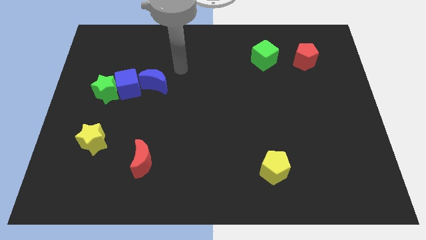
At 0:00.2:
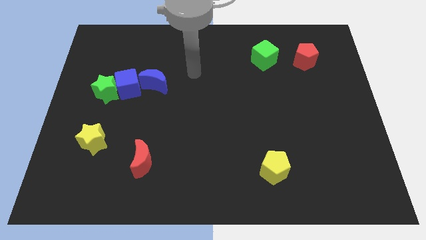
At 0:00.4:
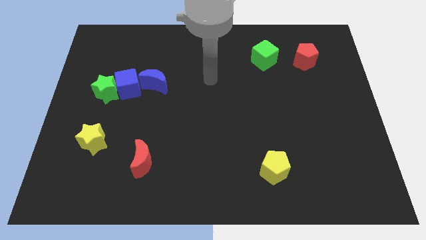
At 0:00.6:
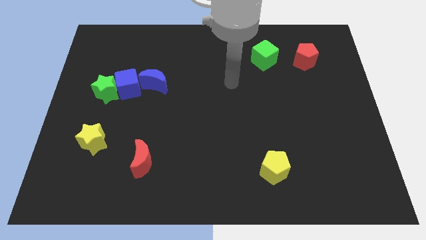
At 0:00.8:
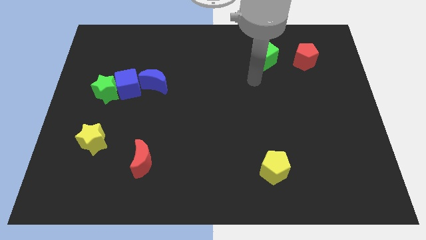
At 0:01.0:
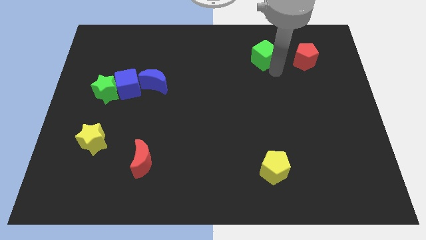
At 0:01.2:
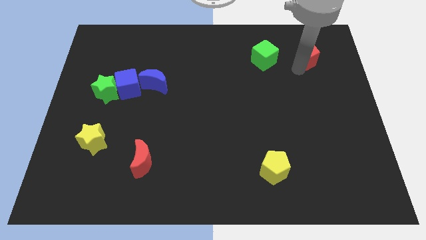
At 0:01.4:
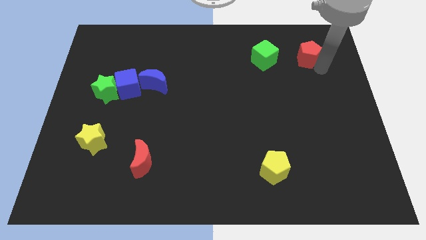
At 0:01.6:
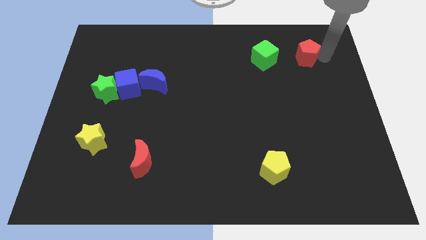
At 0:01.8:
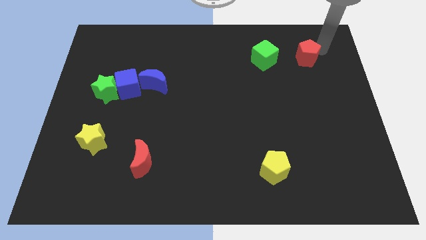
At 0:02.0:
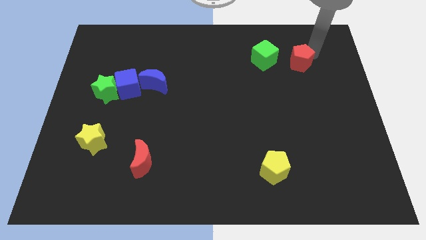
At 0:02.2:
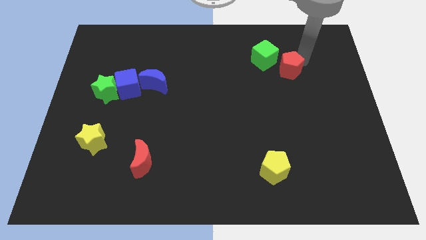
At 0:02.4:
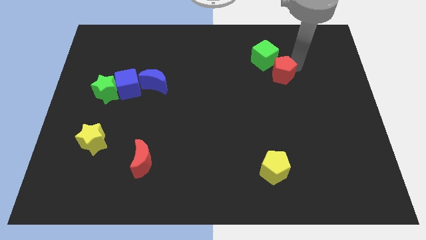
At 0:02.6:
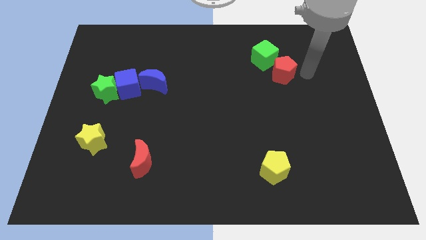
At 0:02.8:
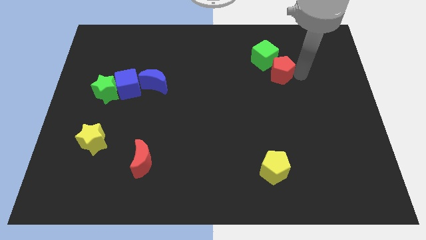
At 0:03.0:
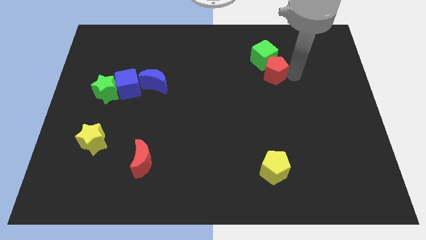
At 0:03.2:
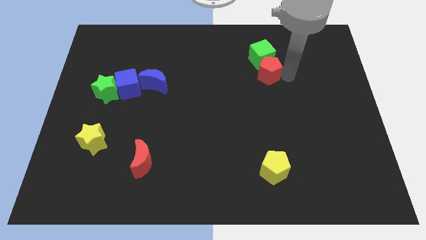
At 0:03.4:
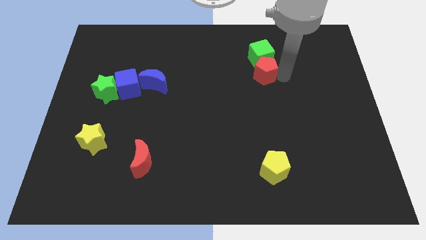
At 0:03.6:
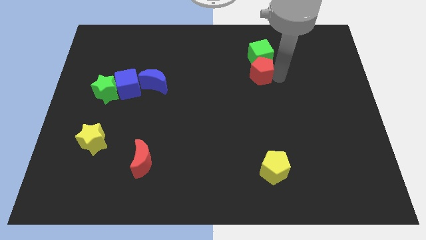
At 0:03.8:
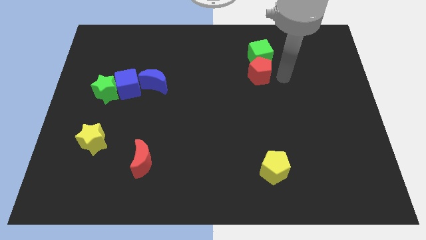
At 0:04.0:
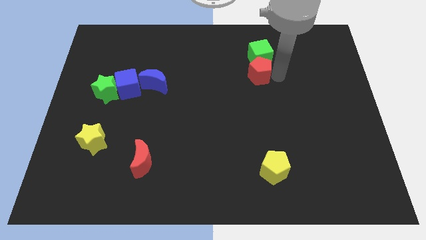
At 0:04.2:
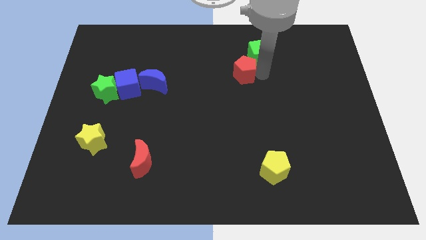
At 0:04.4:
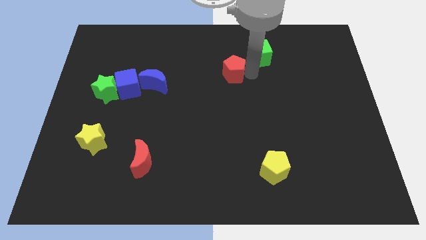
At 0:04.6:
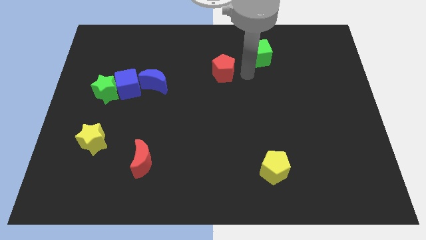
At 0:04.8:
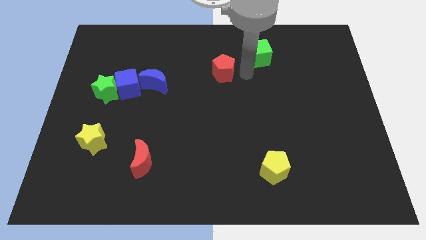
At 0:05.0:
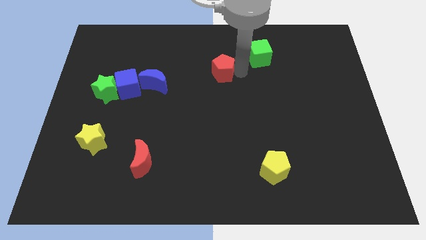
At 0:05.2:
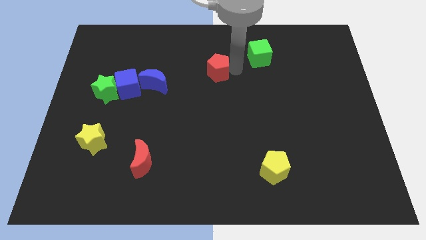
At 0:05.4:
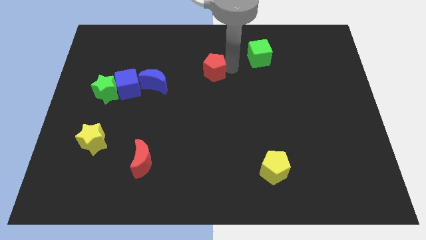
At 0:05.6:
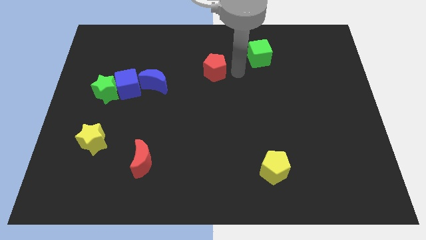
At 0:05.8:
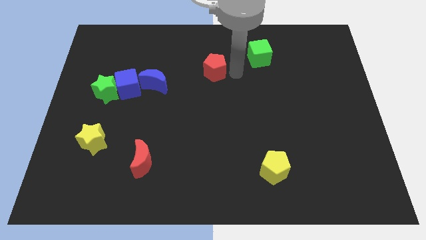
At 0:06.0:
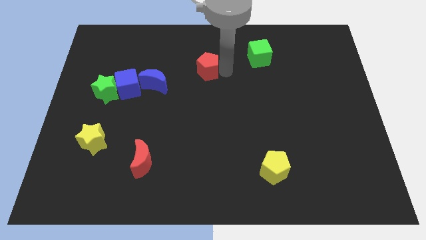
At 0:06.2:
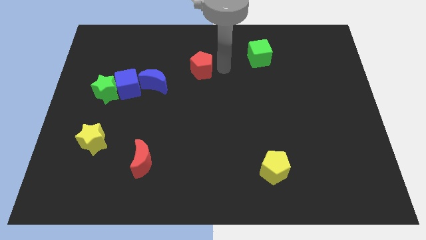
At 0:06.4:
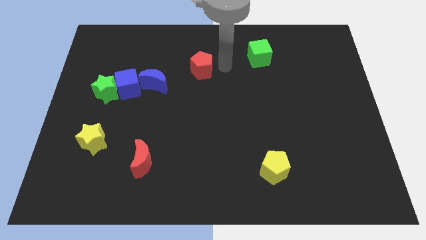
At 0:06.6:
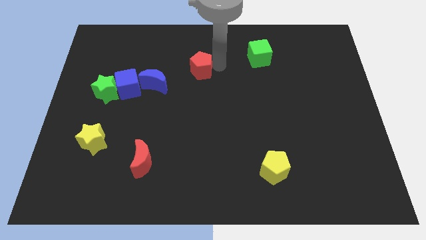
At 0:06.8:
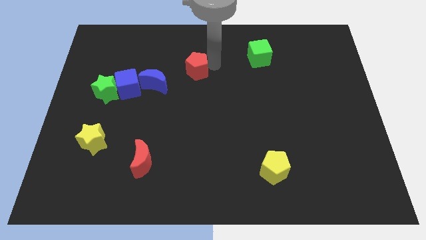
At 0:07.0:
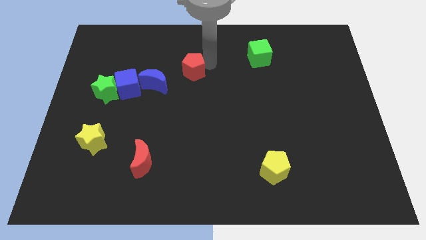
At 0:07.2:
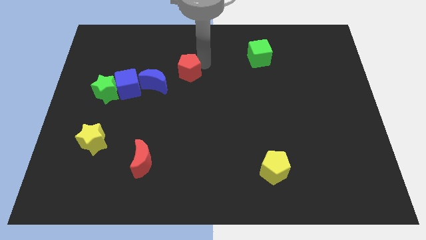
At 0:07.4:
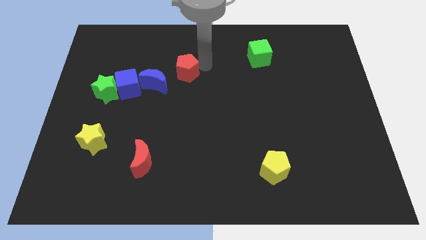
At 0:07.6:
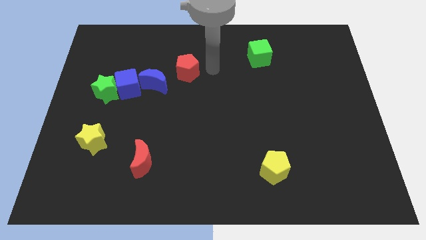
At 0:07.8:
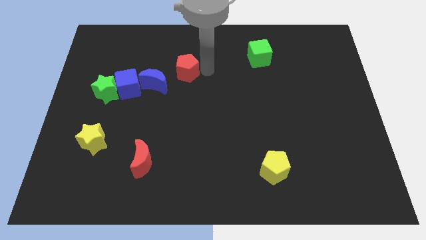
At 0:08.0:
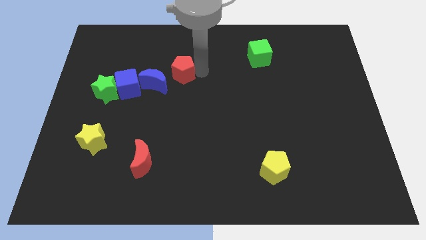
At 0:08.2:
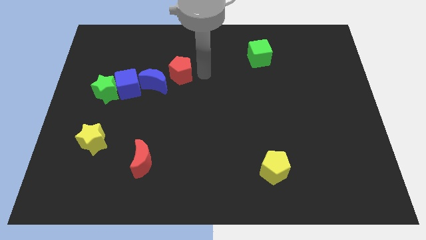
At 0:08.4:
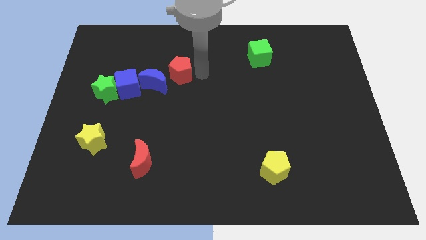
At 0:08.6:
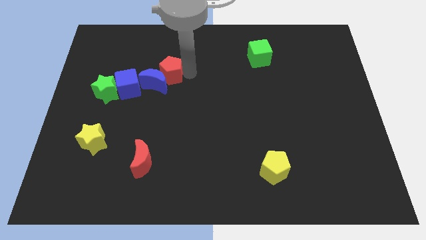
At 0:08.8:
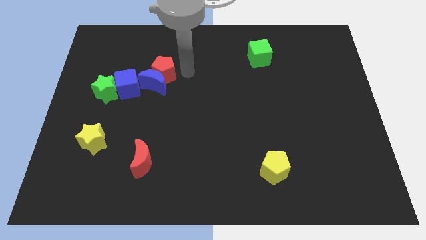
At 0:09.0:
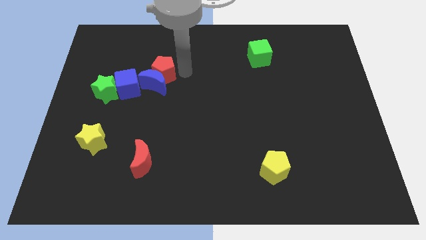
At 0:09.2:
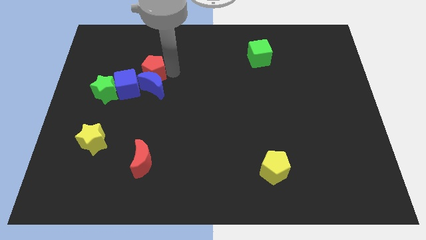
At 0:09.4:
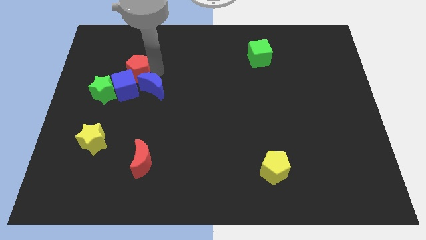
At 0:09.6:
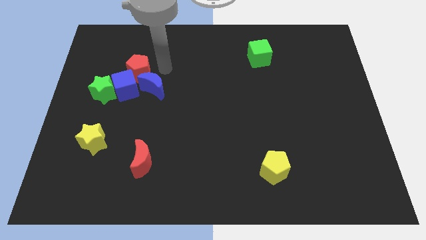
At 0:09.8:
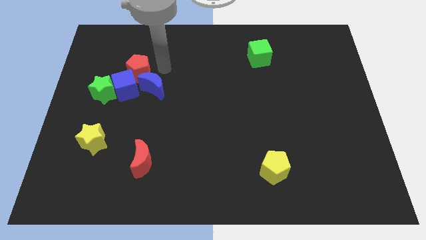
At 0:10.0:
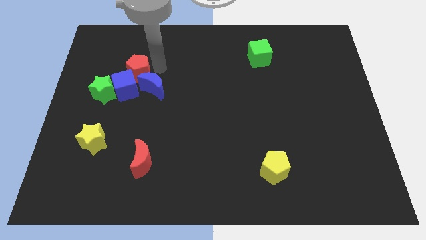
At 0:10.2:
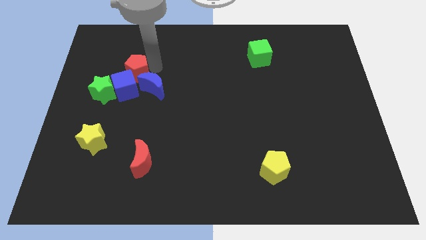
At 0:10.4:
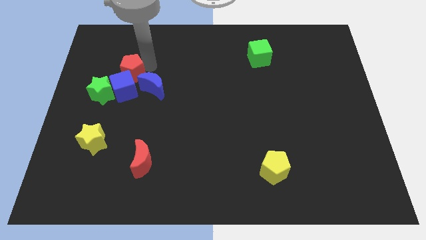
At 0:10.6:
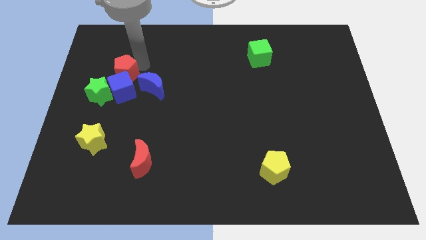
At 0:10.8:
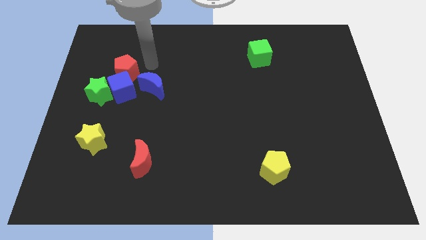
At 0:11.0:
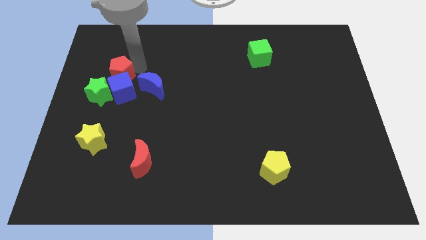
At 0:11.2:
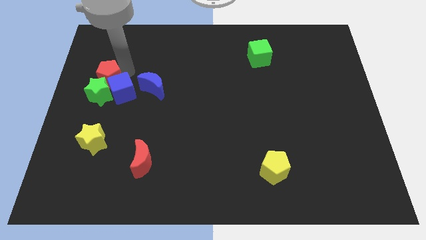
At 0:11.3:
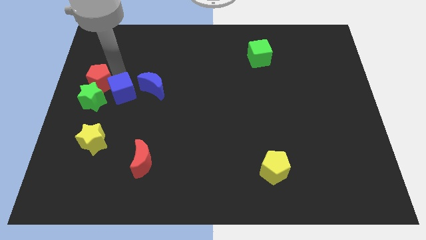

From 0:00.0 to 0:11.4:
put the red pentagon to the left side of the board
